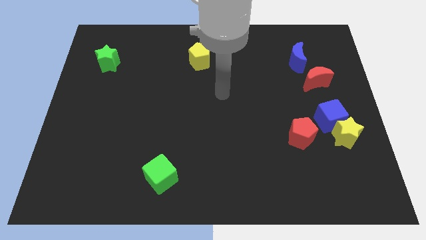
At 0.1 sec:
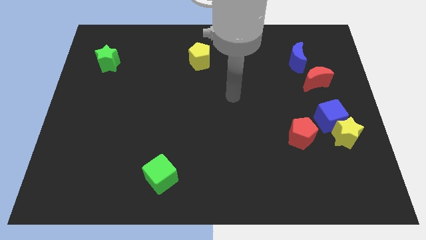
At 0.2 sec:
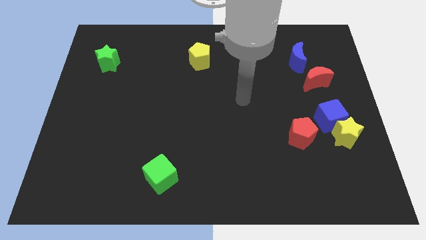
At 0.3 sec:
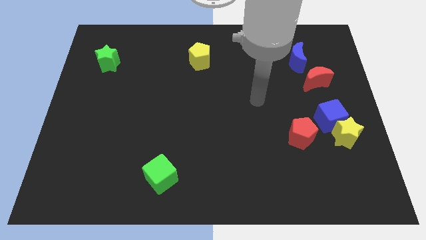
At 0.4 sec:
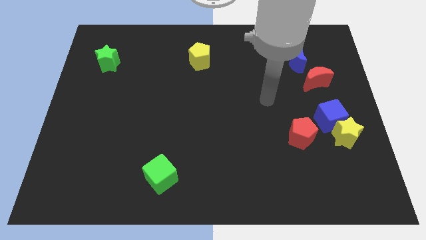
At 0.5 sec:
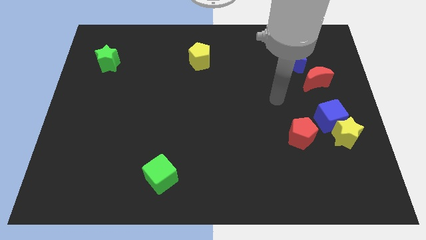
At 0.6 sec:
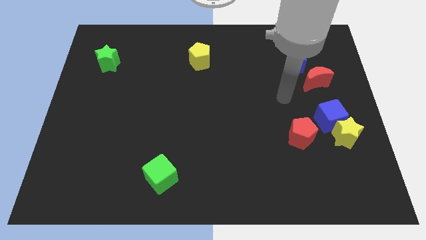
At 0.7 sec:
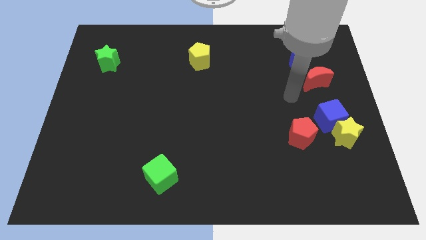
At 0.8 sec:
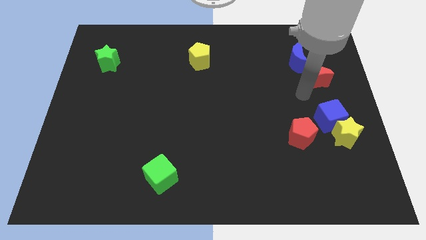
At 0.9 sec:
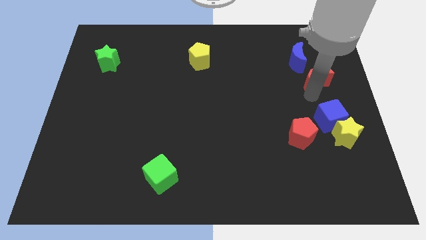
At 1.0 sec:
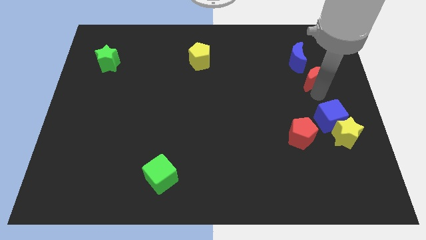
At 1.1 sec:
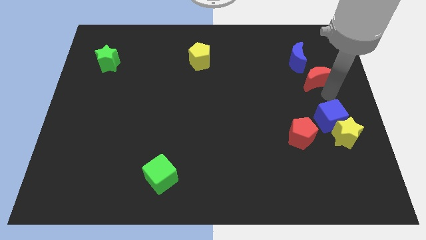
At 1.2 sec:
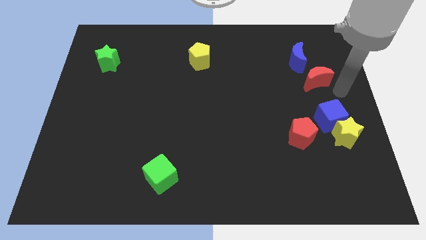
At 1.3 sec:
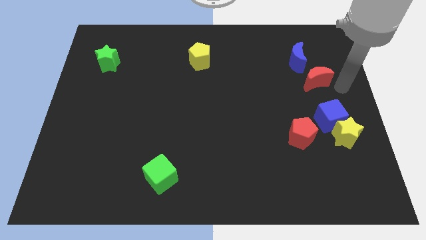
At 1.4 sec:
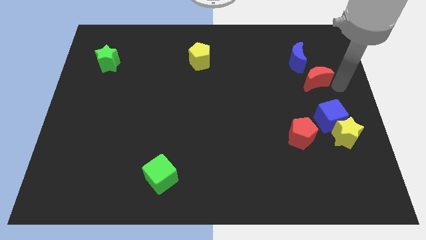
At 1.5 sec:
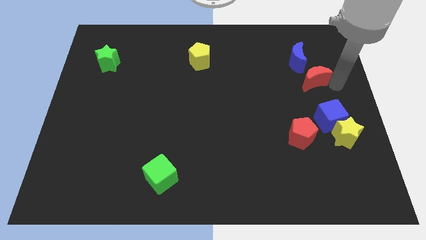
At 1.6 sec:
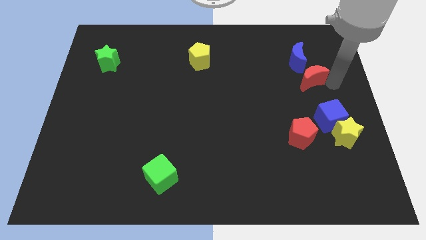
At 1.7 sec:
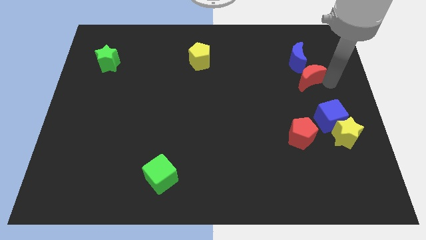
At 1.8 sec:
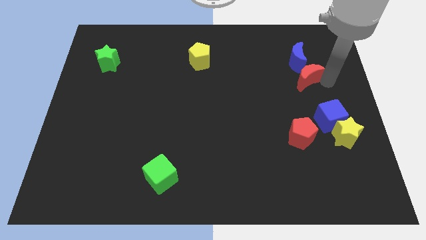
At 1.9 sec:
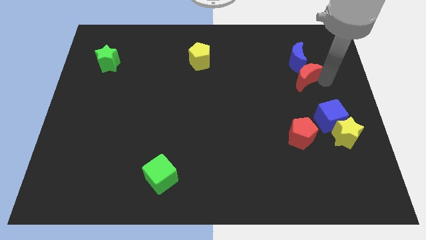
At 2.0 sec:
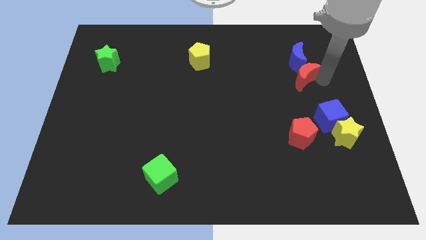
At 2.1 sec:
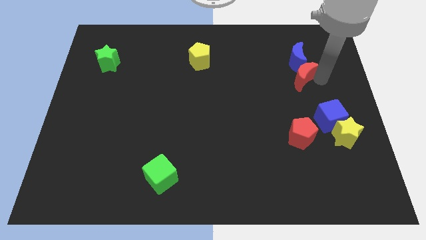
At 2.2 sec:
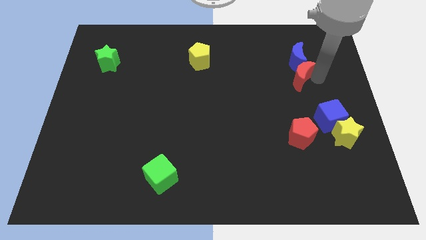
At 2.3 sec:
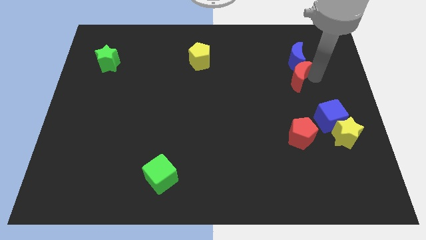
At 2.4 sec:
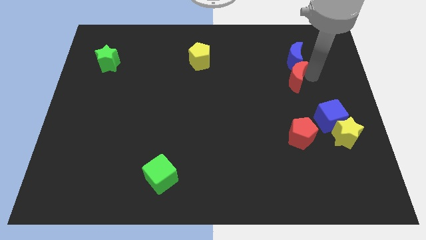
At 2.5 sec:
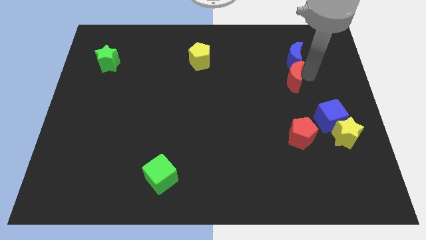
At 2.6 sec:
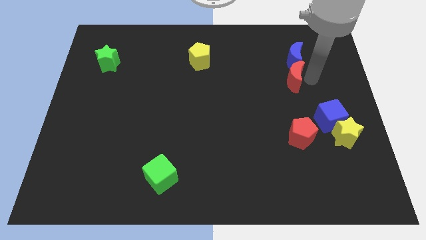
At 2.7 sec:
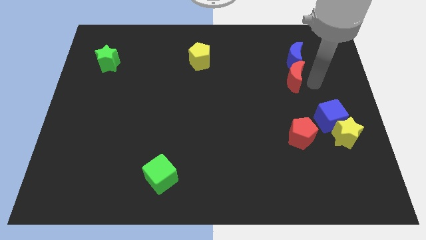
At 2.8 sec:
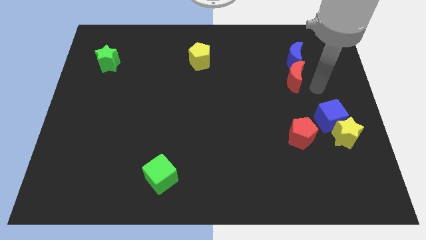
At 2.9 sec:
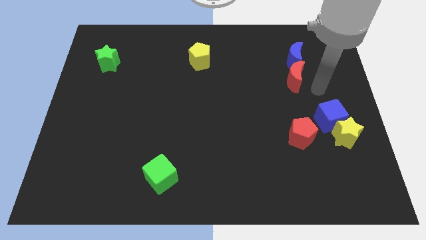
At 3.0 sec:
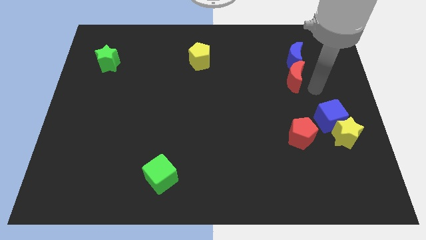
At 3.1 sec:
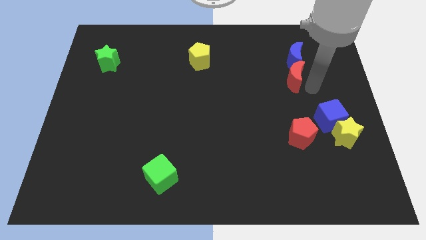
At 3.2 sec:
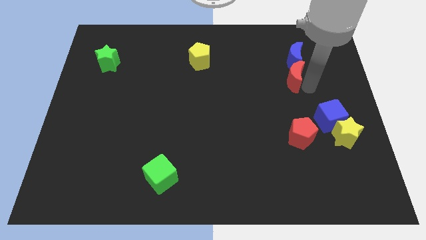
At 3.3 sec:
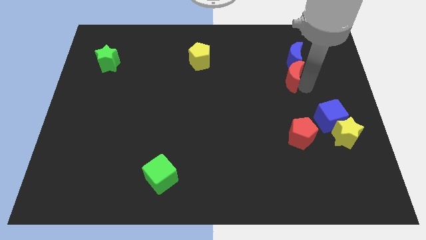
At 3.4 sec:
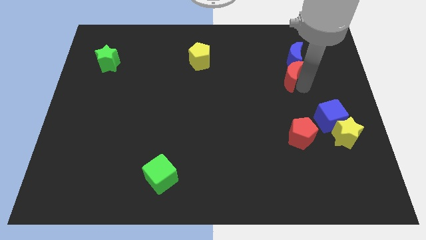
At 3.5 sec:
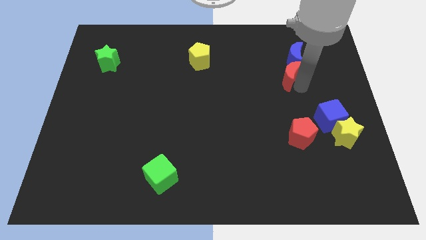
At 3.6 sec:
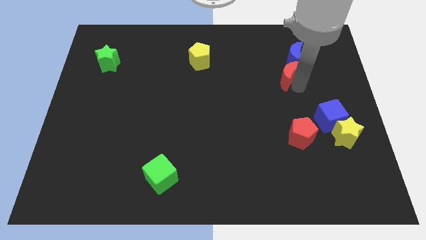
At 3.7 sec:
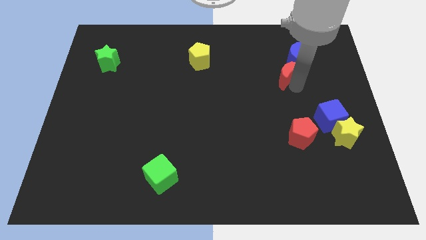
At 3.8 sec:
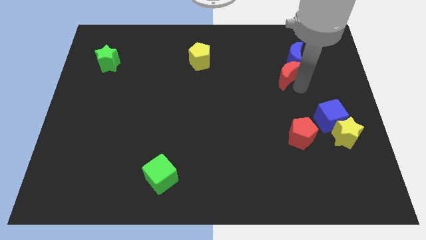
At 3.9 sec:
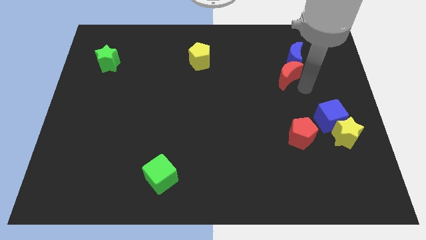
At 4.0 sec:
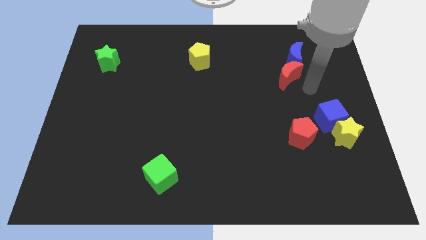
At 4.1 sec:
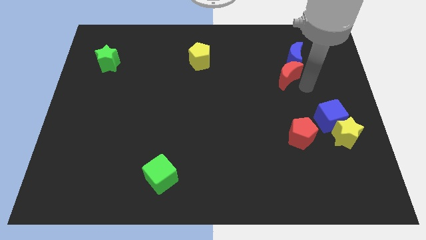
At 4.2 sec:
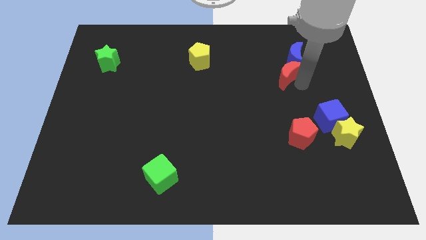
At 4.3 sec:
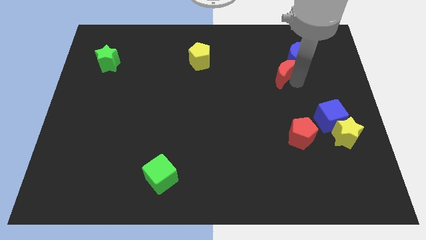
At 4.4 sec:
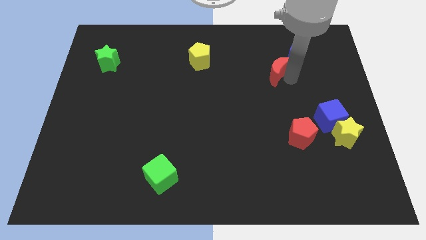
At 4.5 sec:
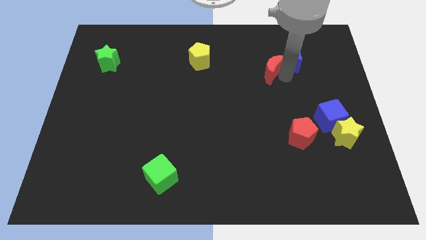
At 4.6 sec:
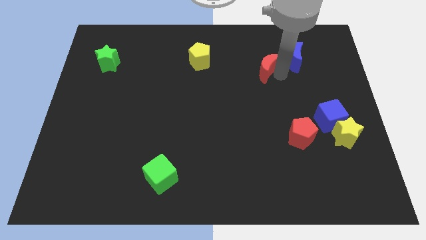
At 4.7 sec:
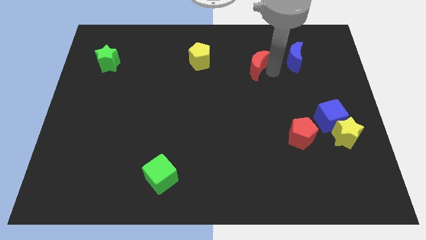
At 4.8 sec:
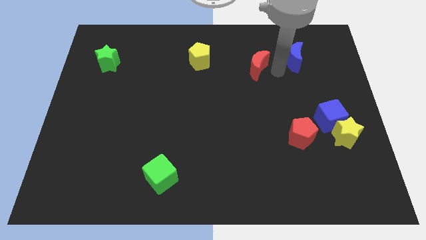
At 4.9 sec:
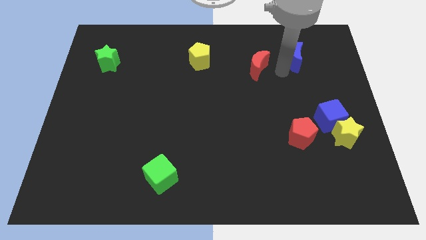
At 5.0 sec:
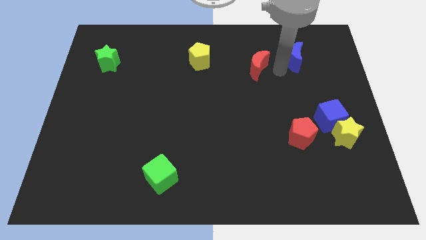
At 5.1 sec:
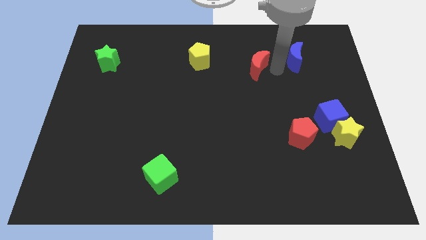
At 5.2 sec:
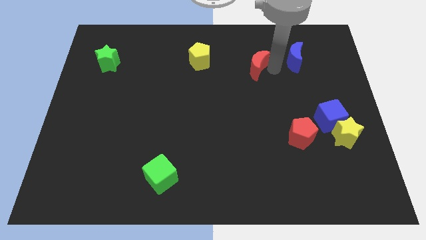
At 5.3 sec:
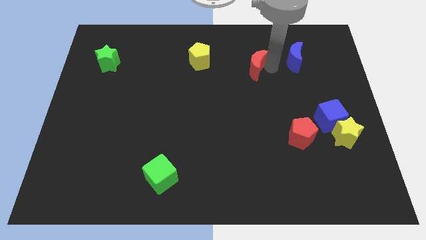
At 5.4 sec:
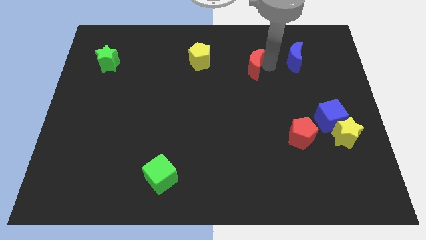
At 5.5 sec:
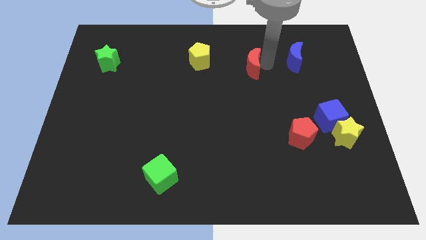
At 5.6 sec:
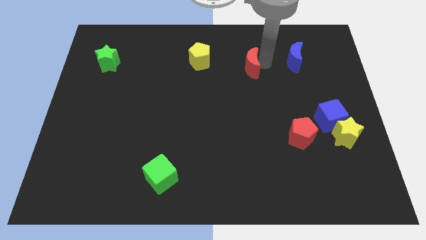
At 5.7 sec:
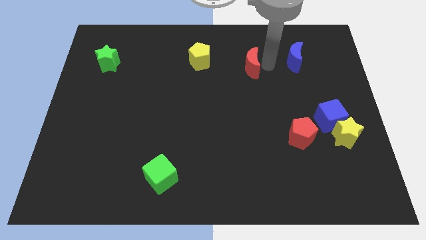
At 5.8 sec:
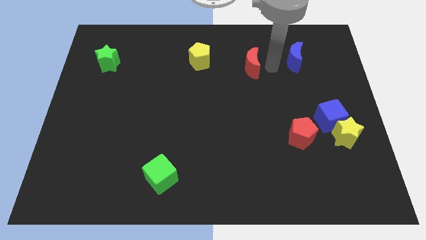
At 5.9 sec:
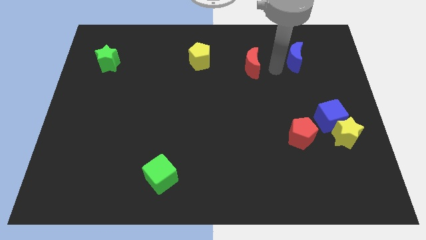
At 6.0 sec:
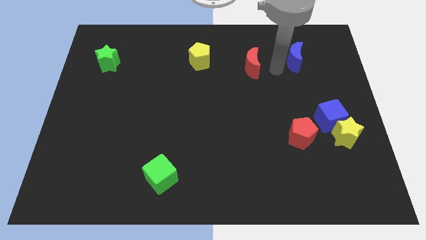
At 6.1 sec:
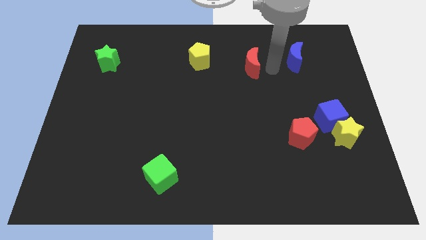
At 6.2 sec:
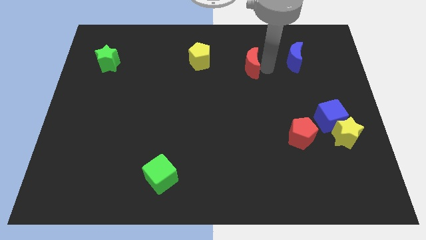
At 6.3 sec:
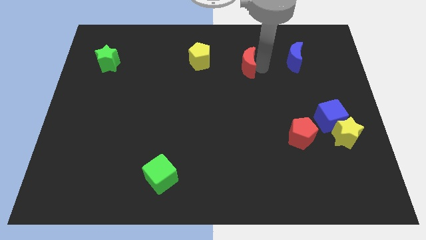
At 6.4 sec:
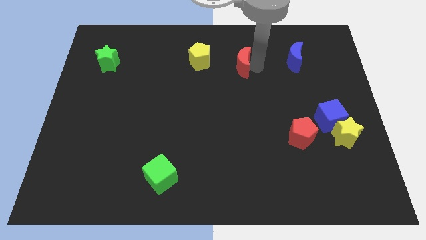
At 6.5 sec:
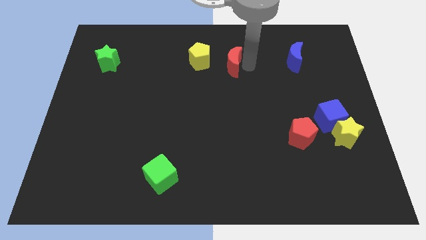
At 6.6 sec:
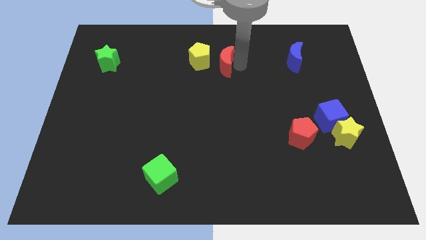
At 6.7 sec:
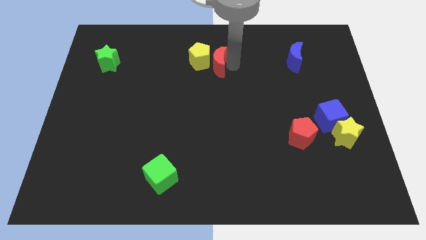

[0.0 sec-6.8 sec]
move the red moon next to the yellow pentagon
